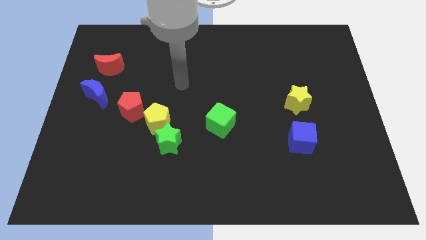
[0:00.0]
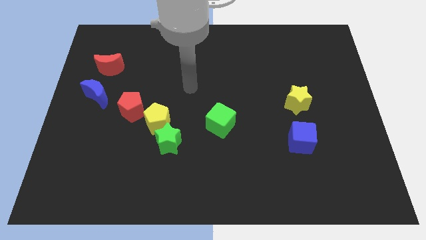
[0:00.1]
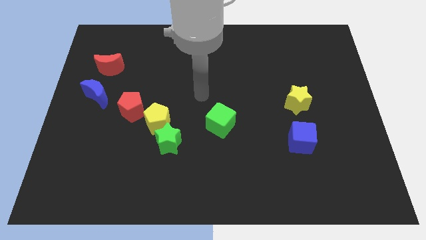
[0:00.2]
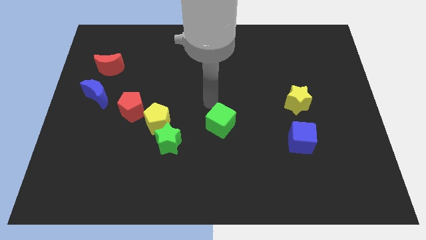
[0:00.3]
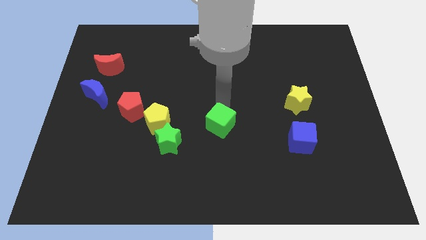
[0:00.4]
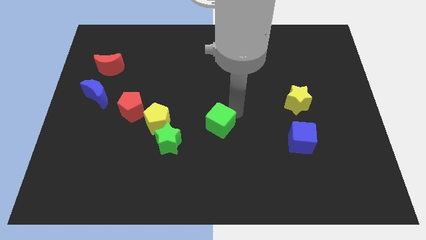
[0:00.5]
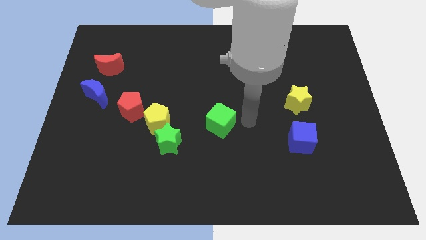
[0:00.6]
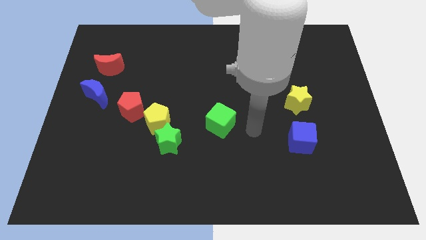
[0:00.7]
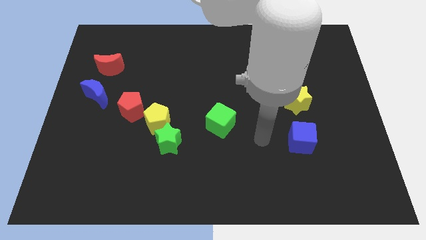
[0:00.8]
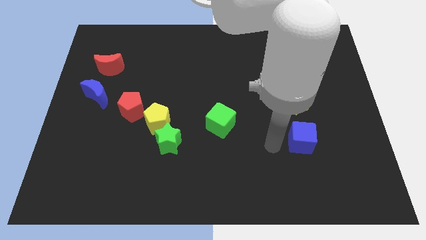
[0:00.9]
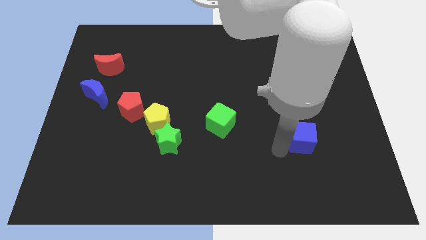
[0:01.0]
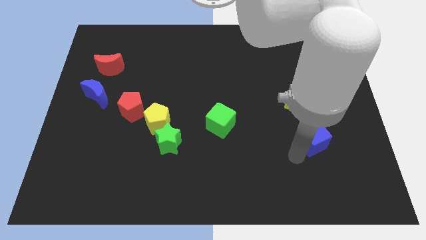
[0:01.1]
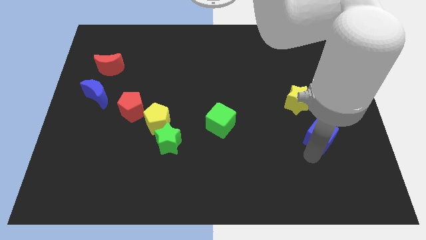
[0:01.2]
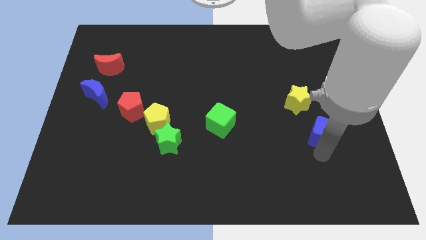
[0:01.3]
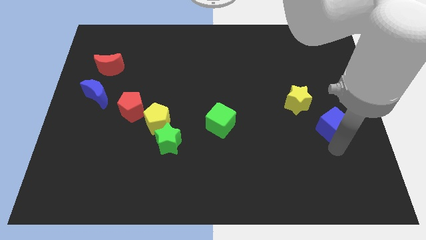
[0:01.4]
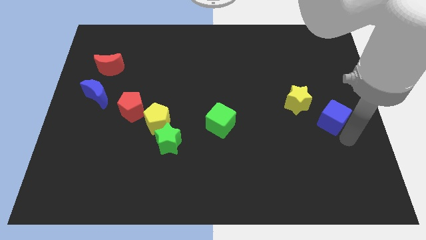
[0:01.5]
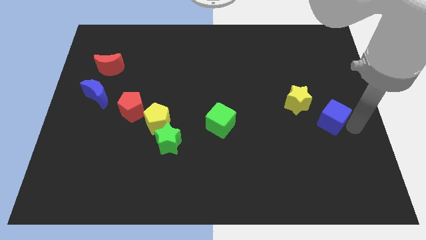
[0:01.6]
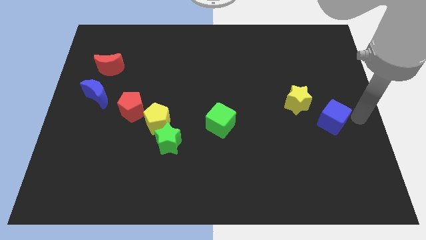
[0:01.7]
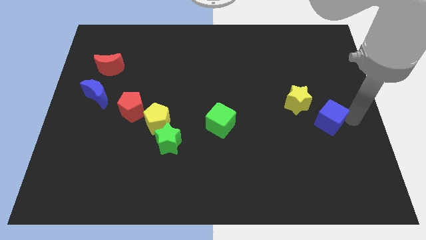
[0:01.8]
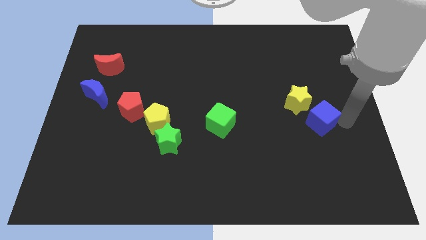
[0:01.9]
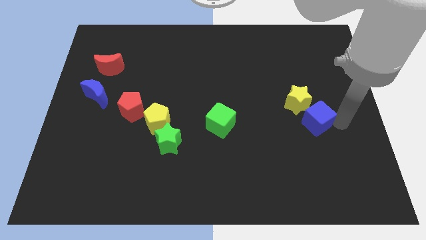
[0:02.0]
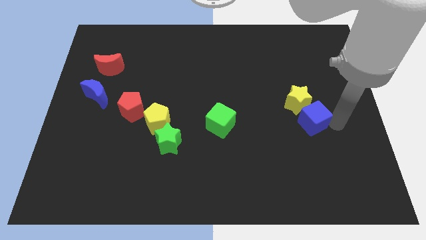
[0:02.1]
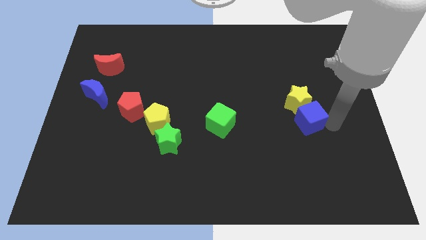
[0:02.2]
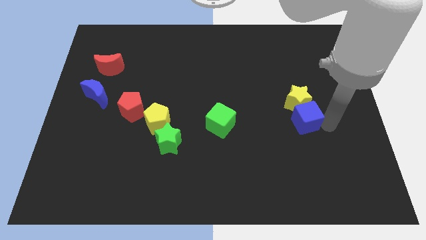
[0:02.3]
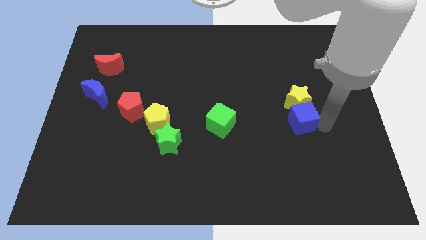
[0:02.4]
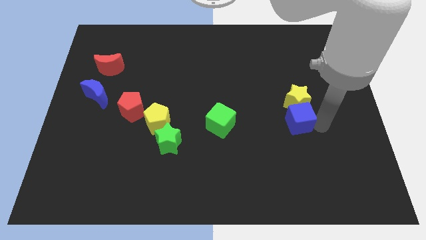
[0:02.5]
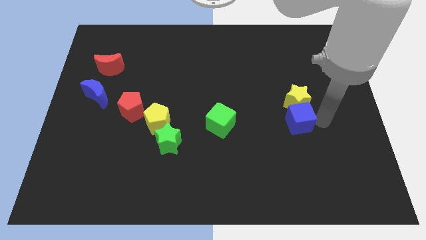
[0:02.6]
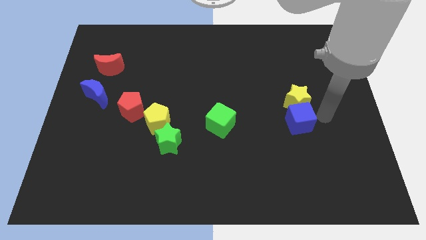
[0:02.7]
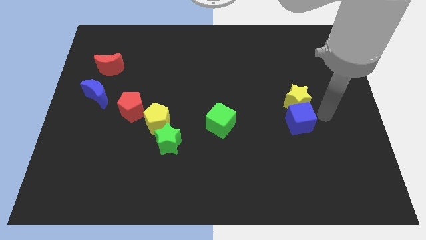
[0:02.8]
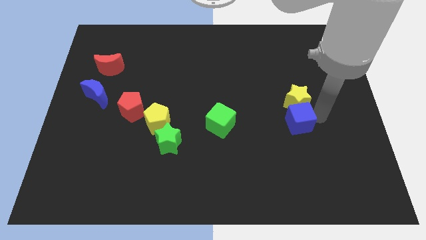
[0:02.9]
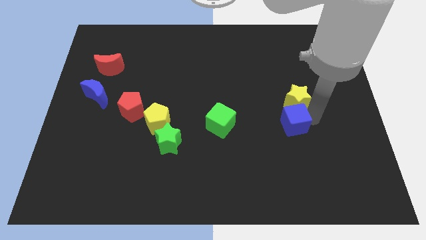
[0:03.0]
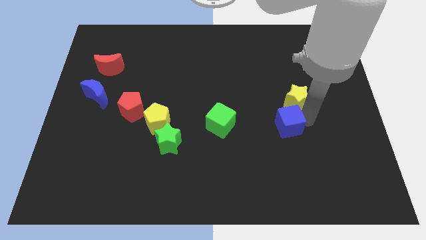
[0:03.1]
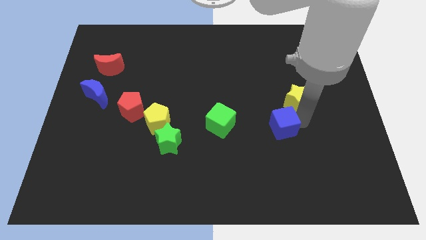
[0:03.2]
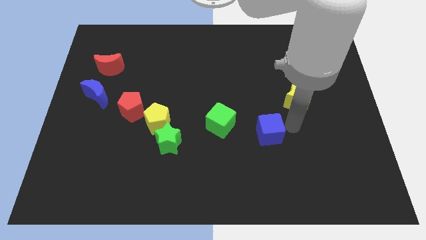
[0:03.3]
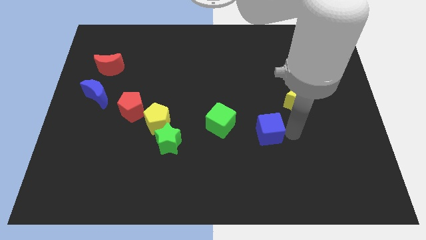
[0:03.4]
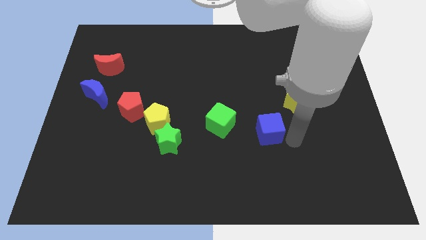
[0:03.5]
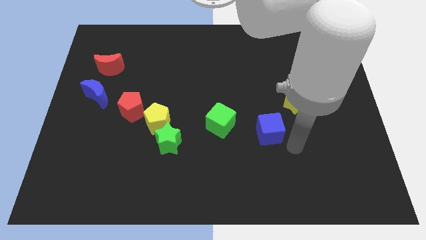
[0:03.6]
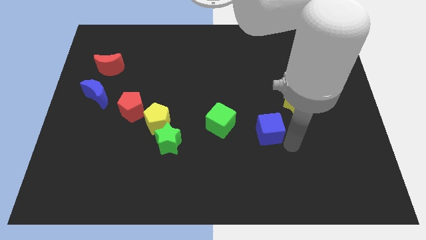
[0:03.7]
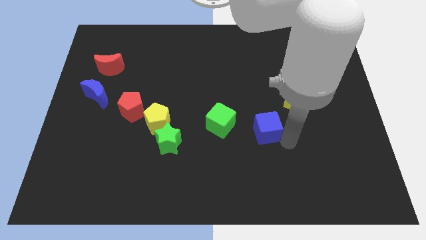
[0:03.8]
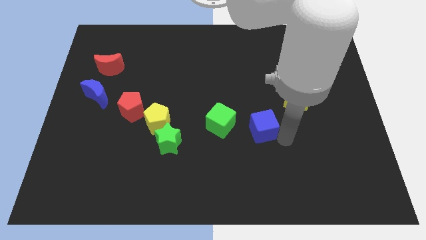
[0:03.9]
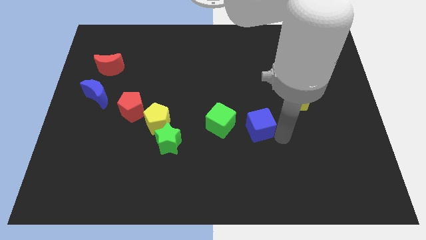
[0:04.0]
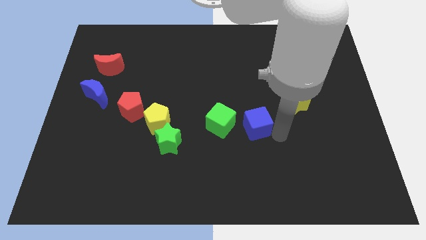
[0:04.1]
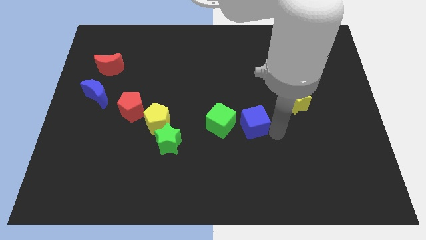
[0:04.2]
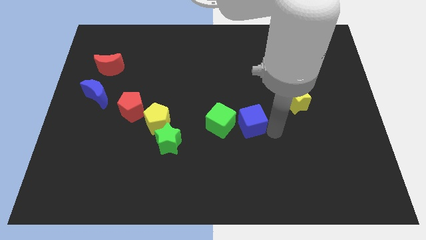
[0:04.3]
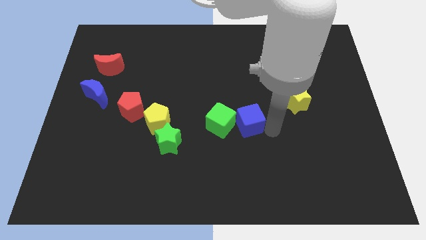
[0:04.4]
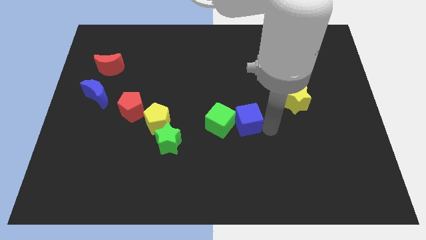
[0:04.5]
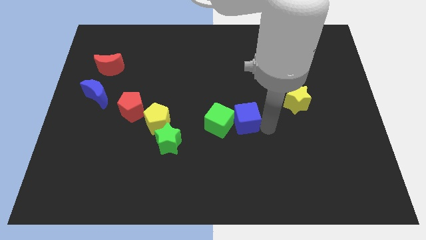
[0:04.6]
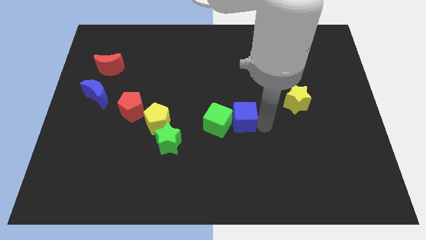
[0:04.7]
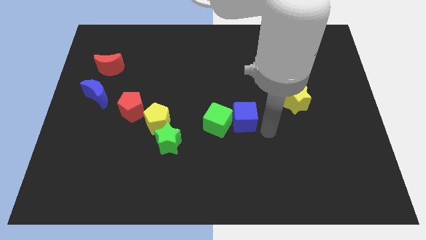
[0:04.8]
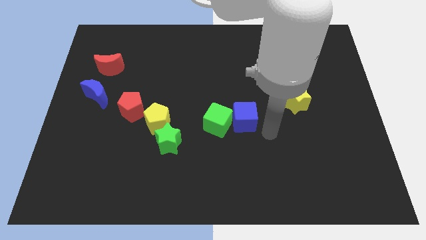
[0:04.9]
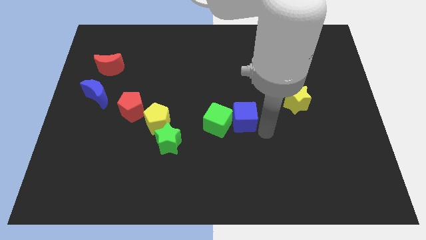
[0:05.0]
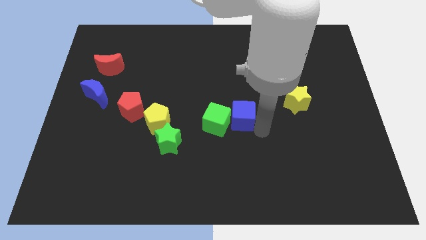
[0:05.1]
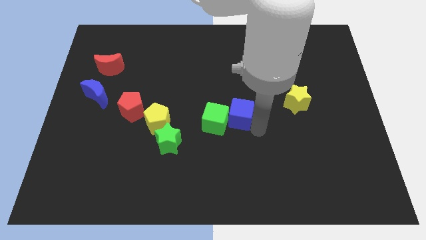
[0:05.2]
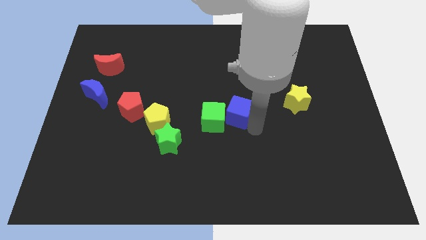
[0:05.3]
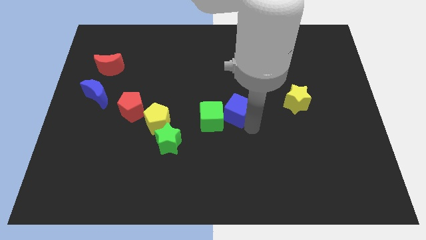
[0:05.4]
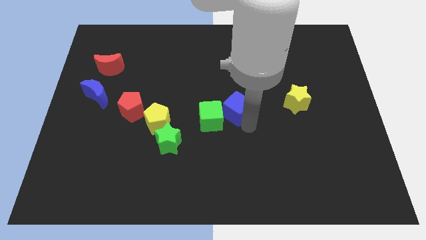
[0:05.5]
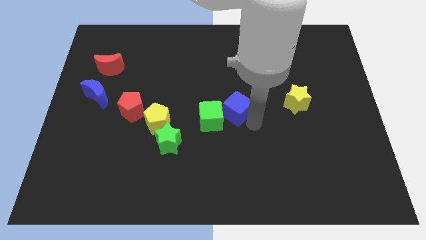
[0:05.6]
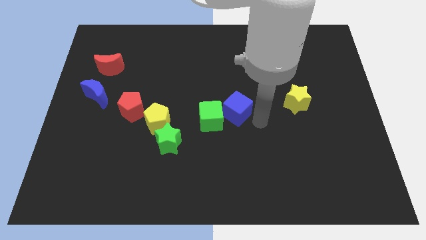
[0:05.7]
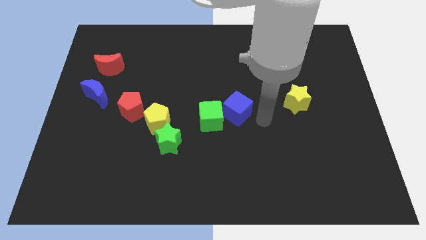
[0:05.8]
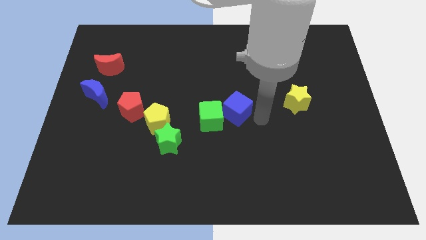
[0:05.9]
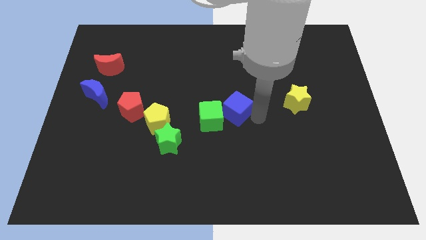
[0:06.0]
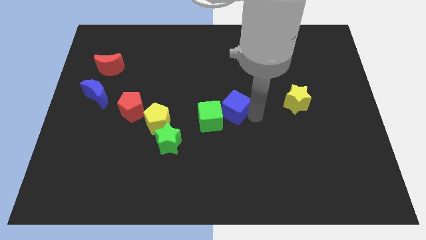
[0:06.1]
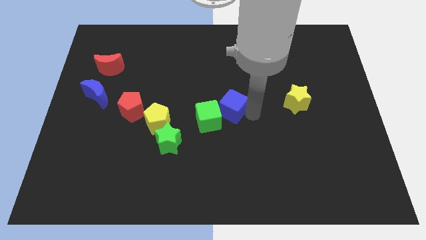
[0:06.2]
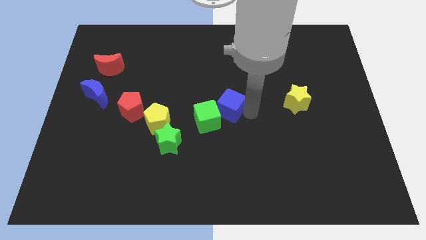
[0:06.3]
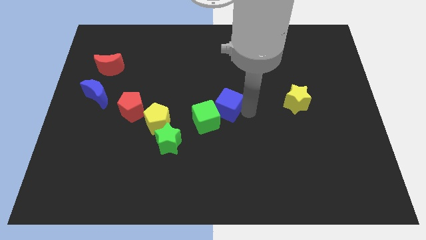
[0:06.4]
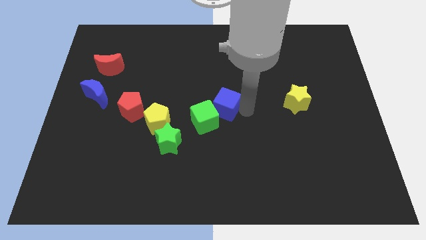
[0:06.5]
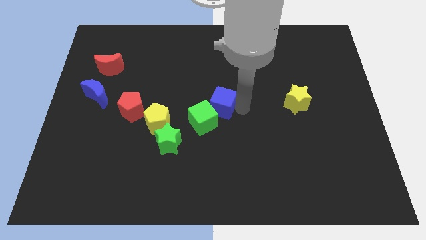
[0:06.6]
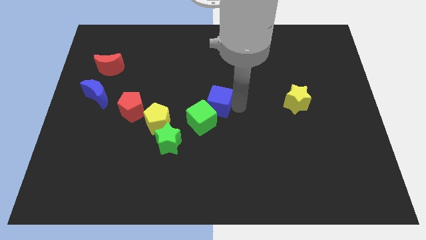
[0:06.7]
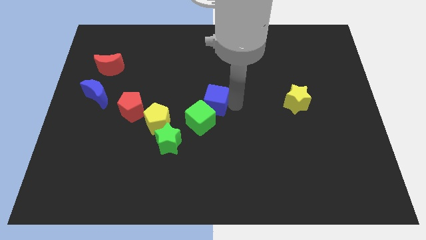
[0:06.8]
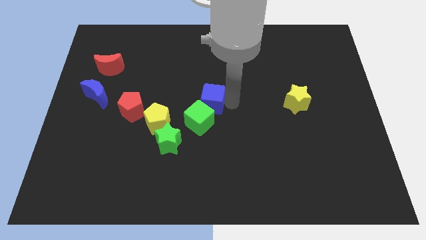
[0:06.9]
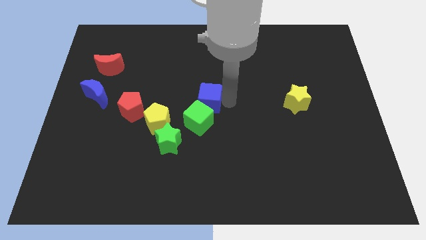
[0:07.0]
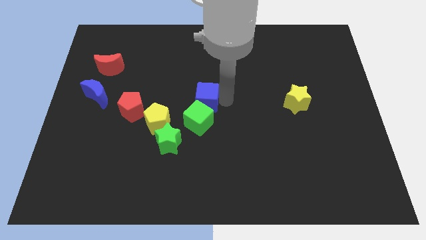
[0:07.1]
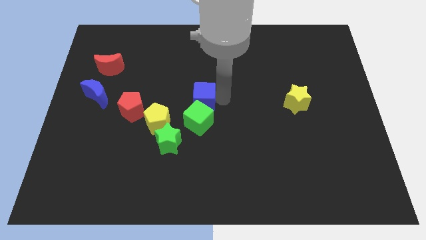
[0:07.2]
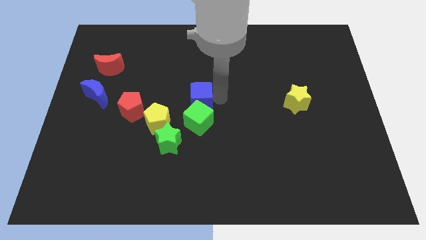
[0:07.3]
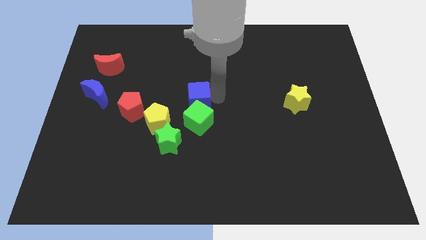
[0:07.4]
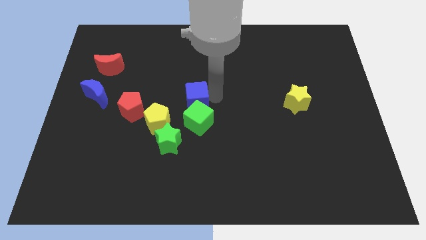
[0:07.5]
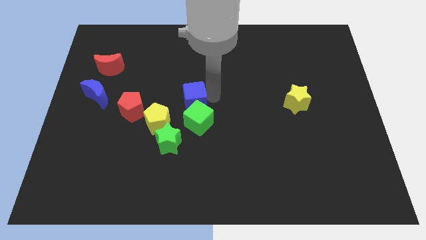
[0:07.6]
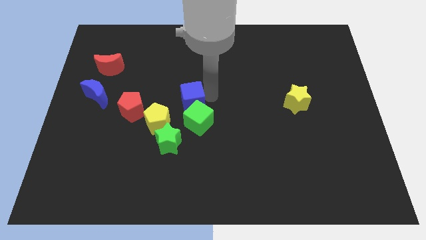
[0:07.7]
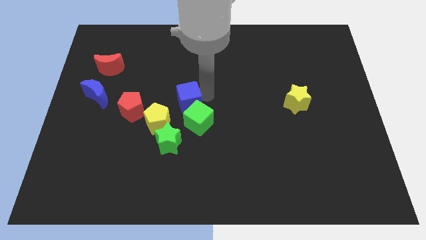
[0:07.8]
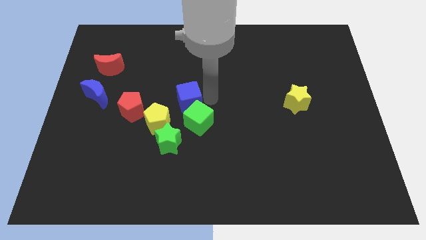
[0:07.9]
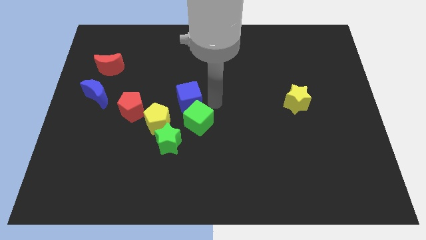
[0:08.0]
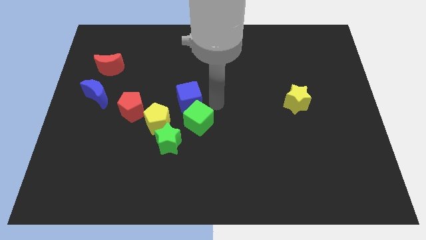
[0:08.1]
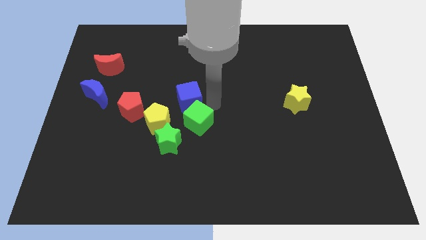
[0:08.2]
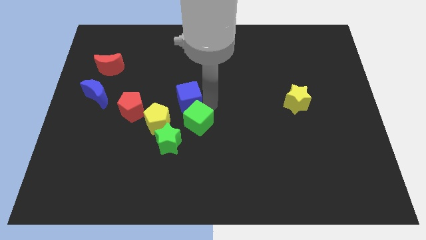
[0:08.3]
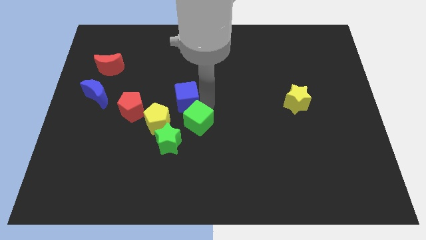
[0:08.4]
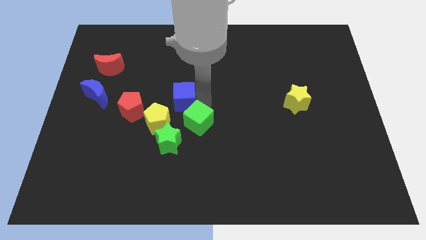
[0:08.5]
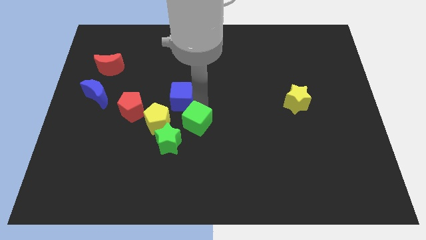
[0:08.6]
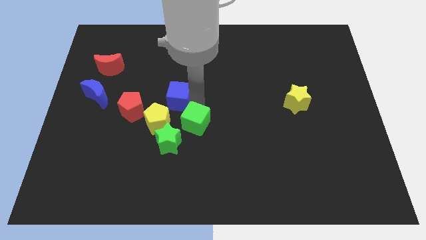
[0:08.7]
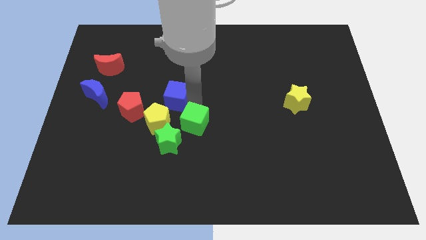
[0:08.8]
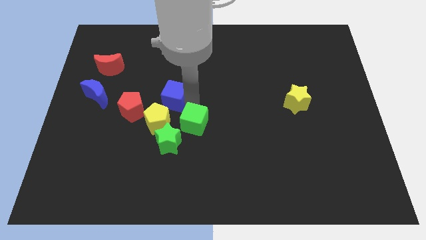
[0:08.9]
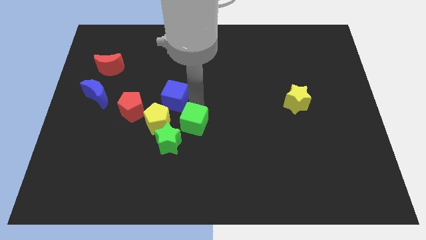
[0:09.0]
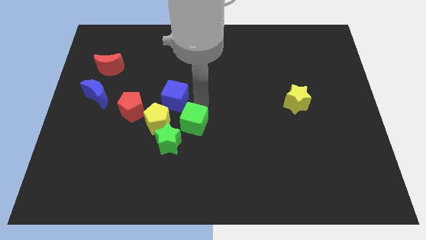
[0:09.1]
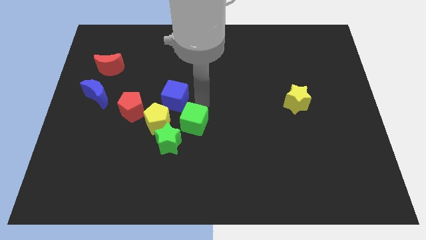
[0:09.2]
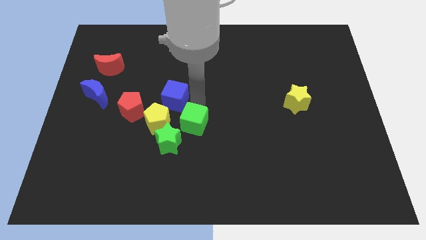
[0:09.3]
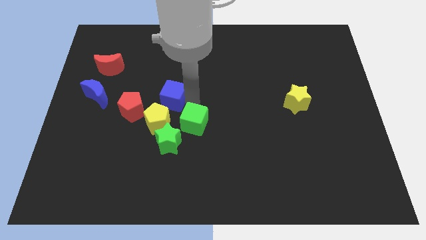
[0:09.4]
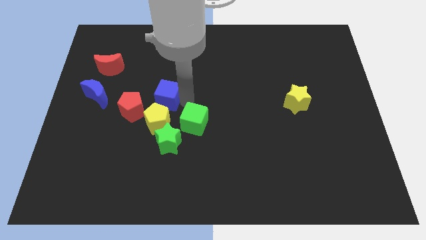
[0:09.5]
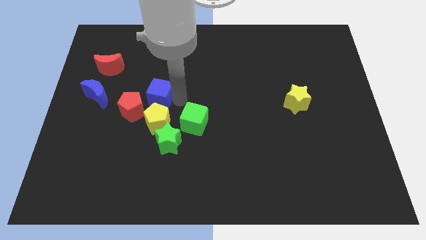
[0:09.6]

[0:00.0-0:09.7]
push the blue cube to the right of the blue moon
